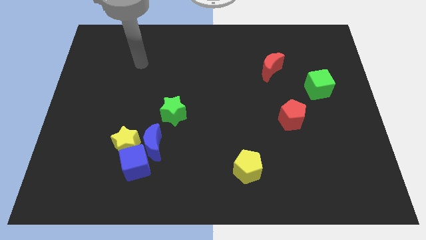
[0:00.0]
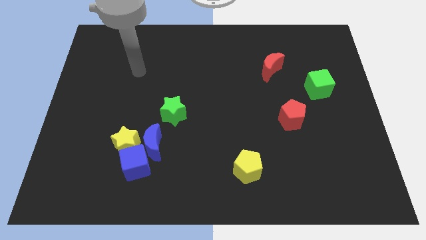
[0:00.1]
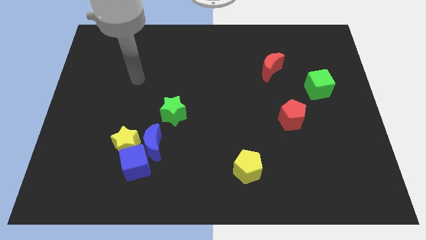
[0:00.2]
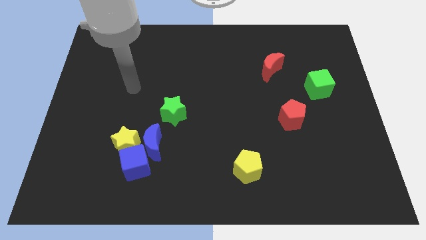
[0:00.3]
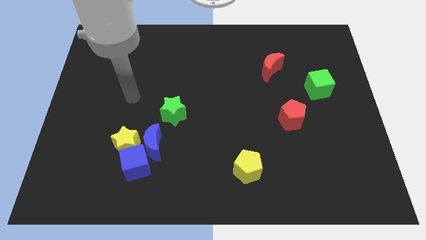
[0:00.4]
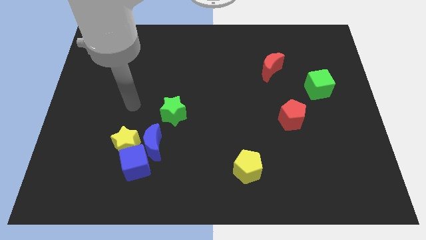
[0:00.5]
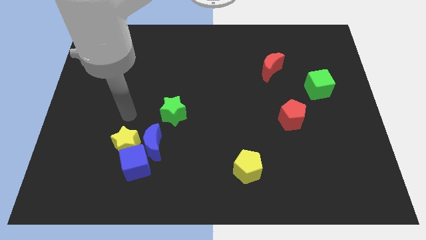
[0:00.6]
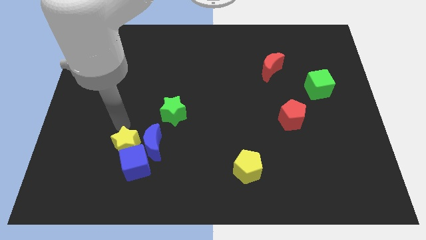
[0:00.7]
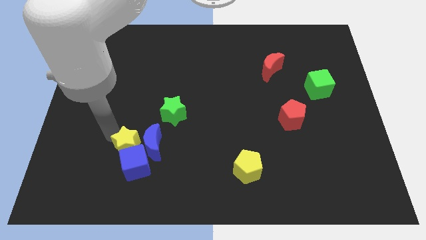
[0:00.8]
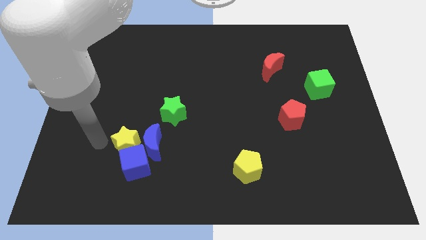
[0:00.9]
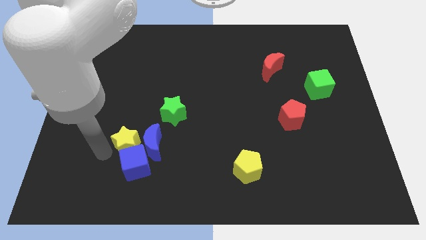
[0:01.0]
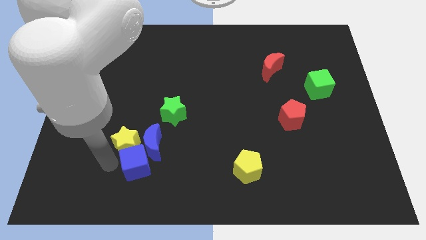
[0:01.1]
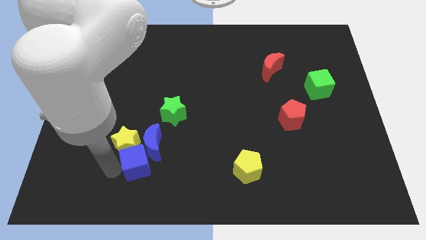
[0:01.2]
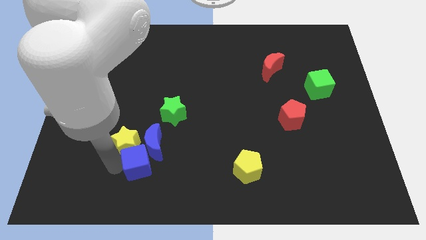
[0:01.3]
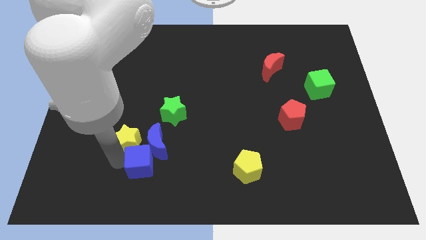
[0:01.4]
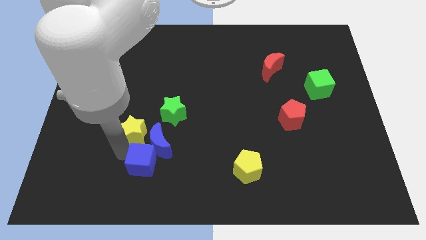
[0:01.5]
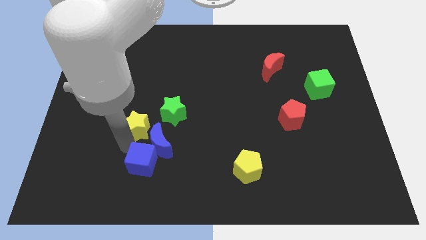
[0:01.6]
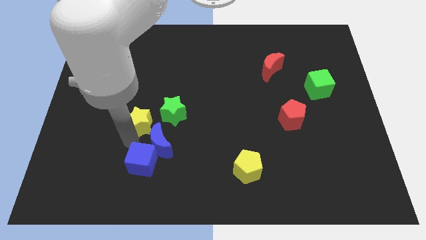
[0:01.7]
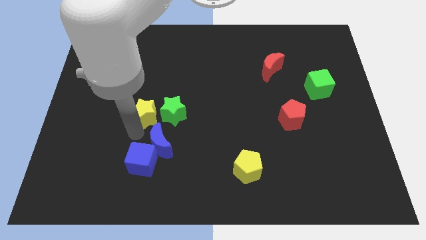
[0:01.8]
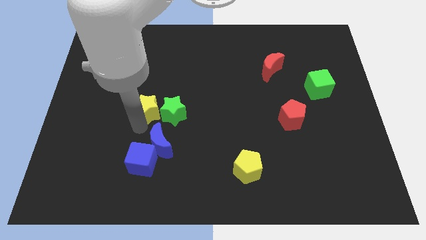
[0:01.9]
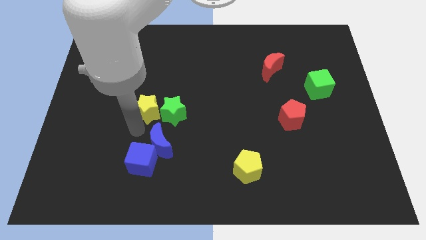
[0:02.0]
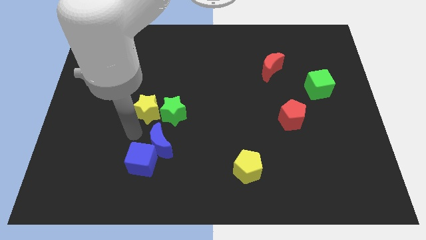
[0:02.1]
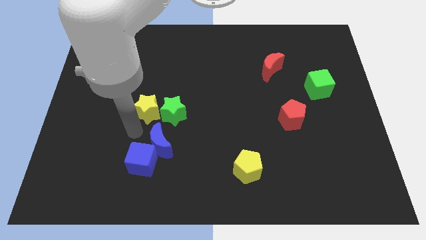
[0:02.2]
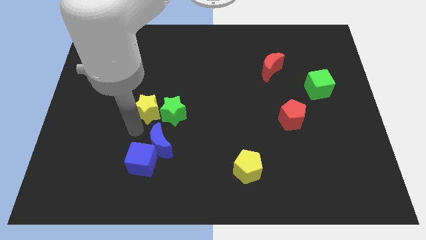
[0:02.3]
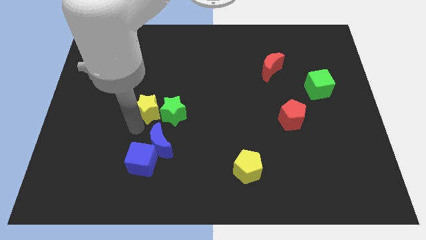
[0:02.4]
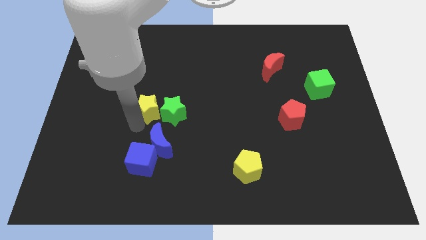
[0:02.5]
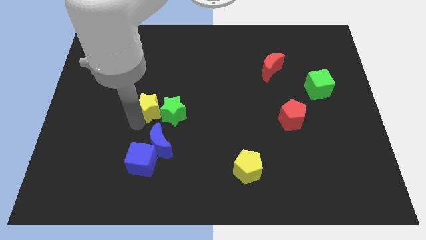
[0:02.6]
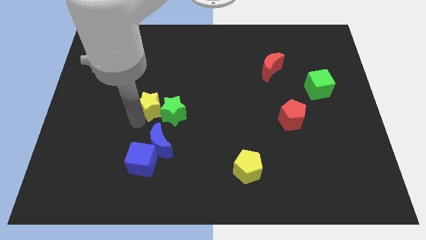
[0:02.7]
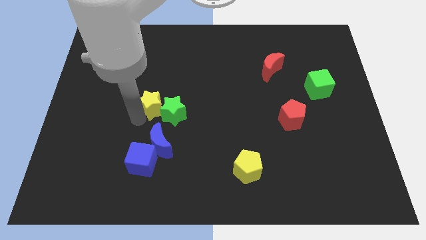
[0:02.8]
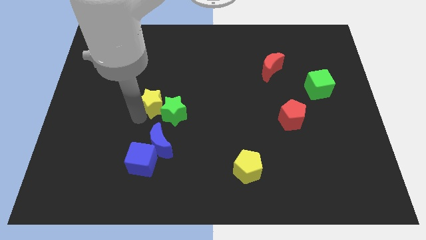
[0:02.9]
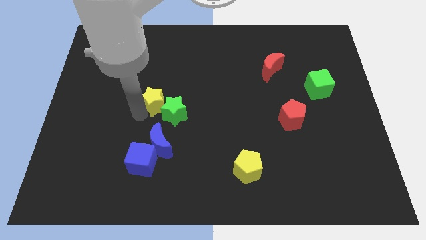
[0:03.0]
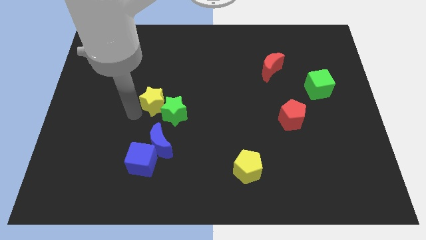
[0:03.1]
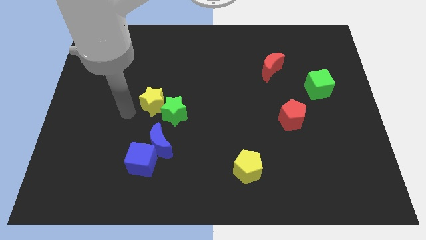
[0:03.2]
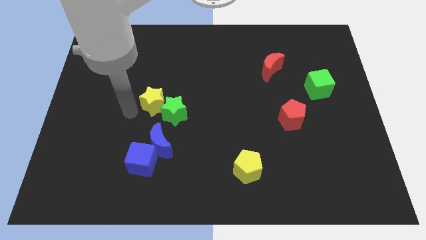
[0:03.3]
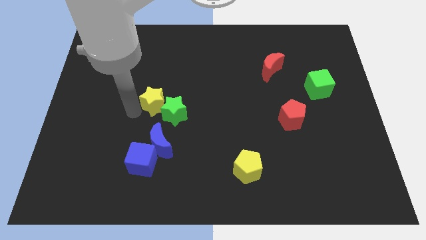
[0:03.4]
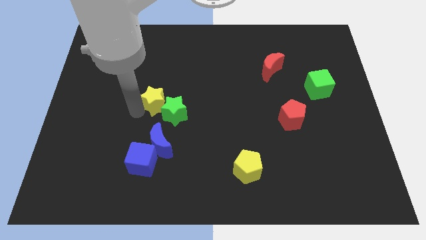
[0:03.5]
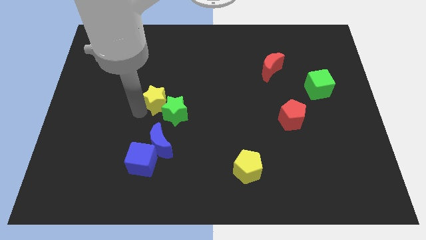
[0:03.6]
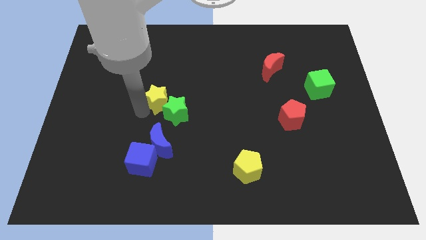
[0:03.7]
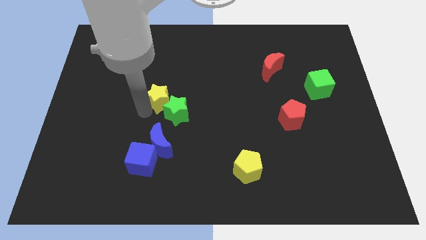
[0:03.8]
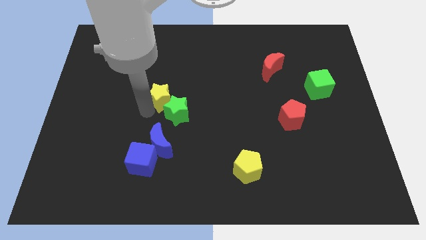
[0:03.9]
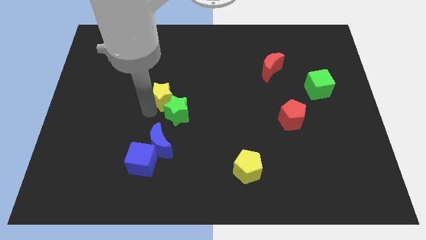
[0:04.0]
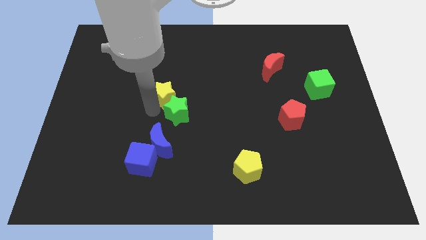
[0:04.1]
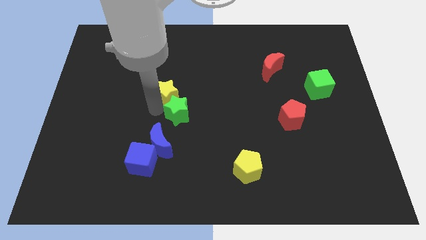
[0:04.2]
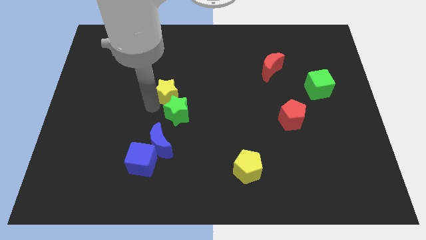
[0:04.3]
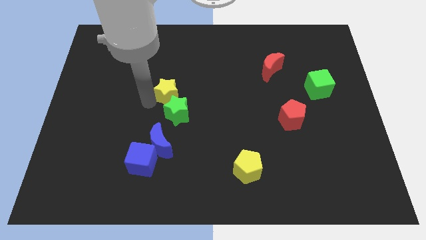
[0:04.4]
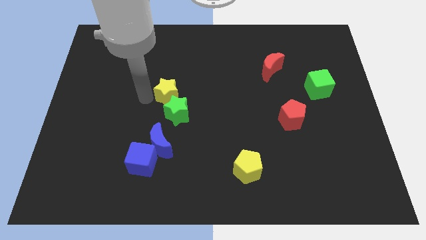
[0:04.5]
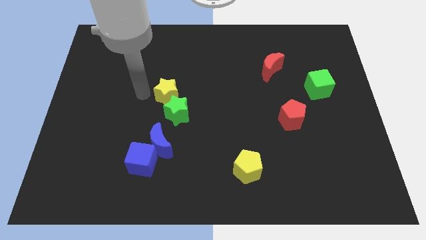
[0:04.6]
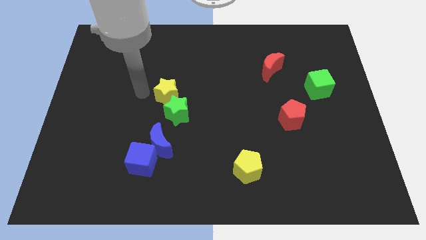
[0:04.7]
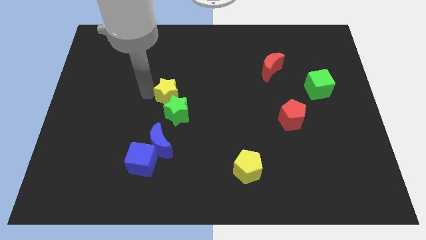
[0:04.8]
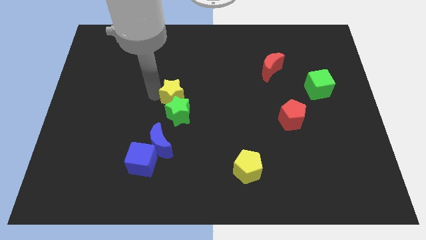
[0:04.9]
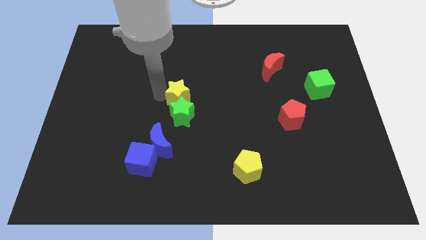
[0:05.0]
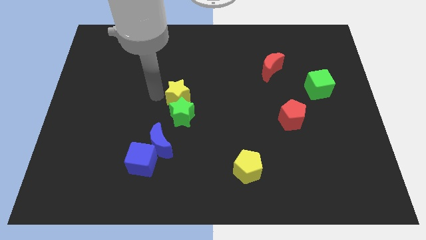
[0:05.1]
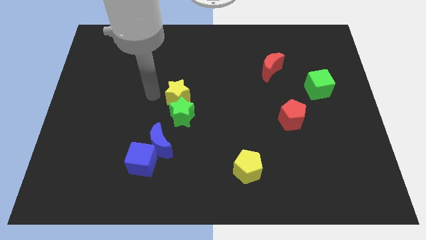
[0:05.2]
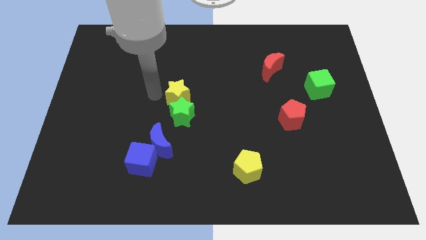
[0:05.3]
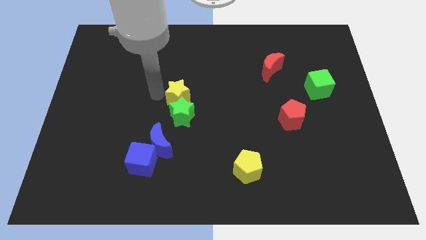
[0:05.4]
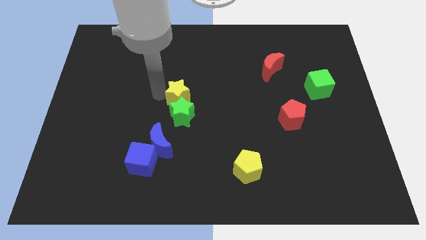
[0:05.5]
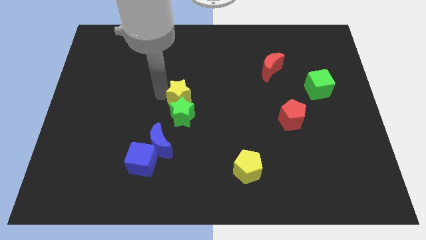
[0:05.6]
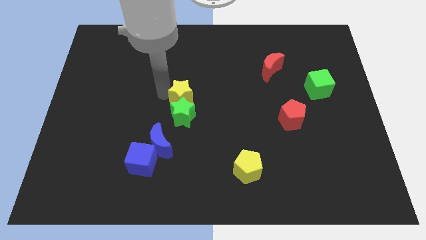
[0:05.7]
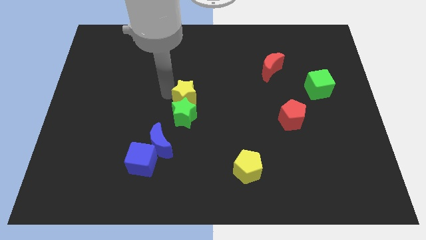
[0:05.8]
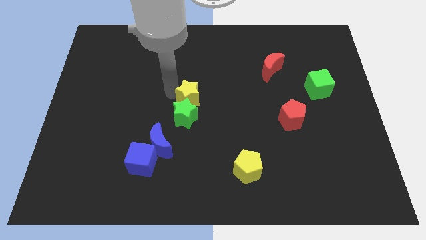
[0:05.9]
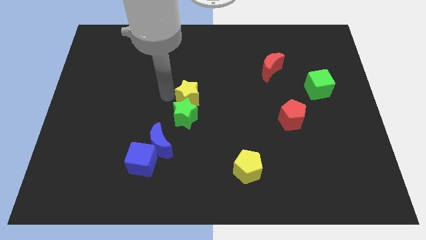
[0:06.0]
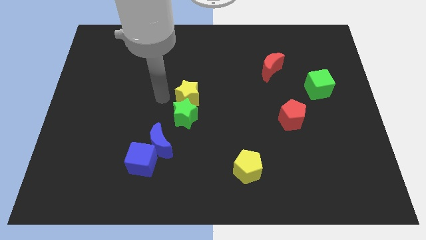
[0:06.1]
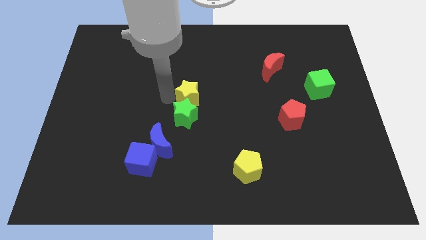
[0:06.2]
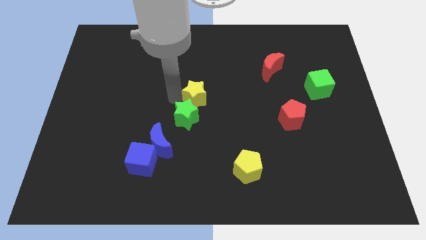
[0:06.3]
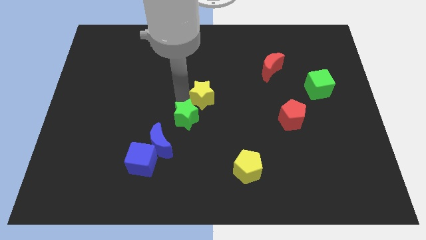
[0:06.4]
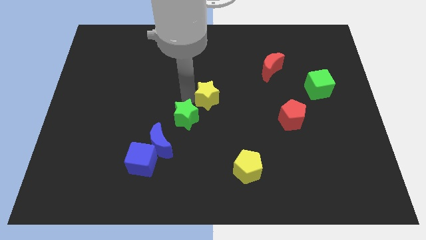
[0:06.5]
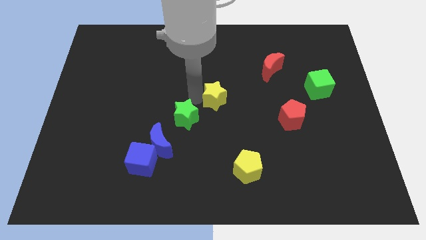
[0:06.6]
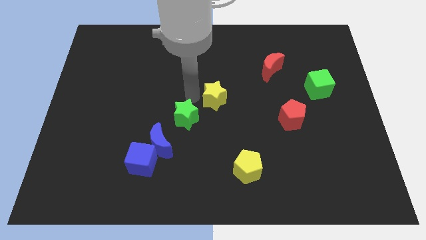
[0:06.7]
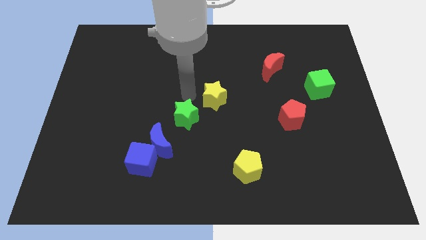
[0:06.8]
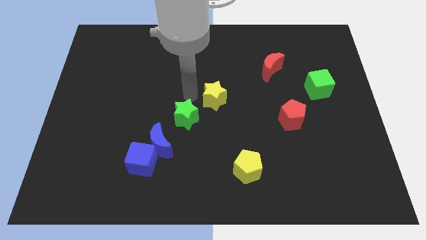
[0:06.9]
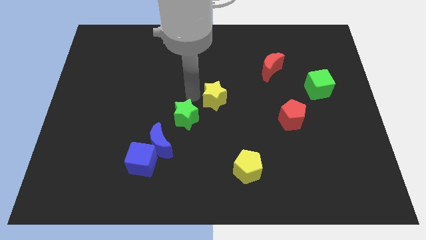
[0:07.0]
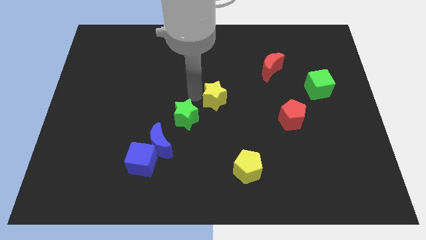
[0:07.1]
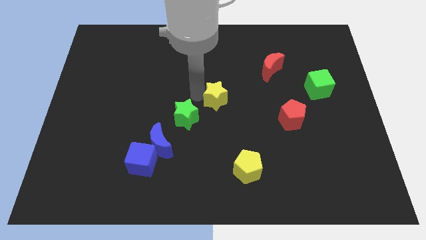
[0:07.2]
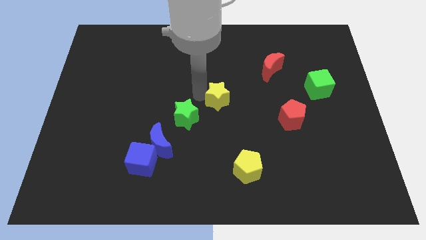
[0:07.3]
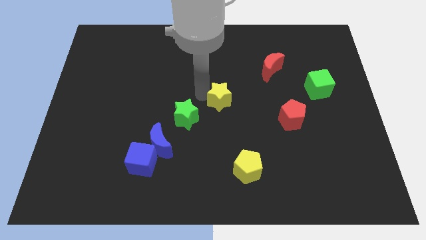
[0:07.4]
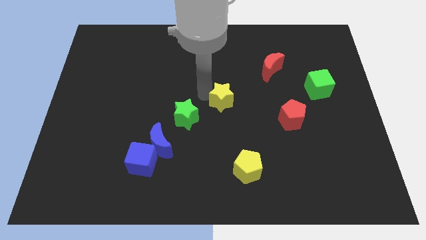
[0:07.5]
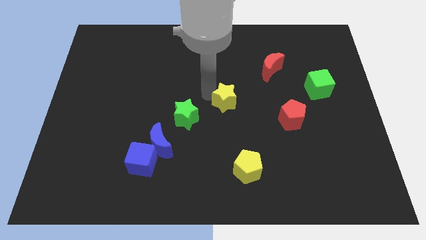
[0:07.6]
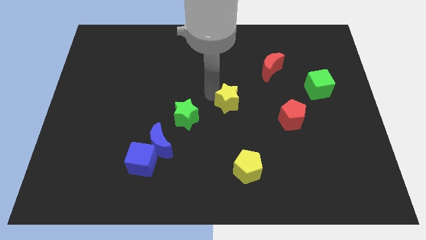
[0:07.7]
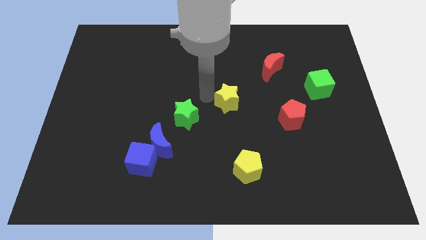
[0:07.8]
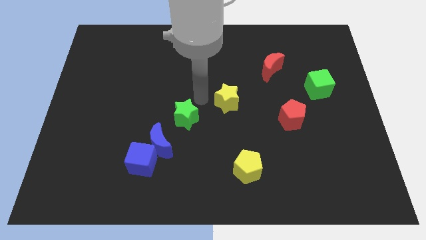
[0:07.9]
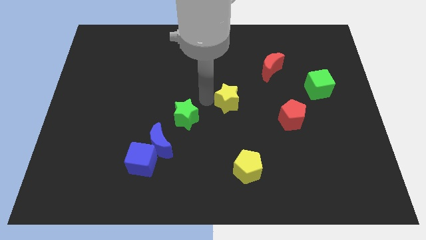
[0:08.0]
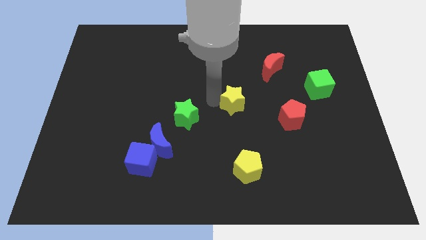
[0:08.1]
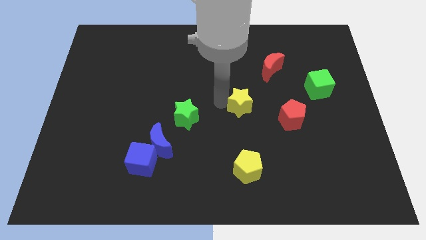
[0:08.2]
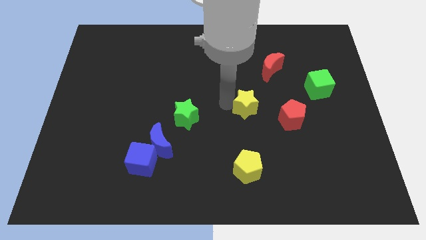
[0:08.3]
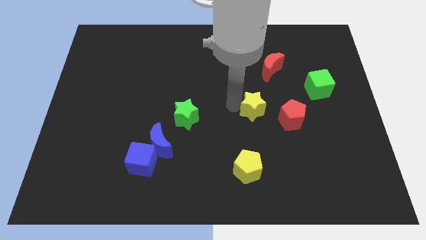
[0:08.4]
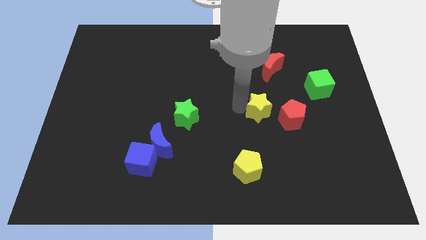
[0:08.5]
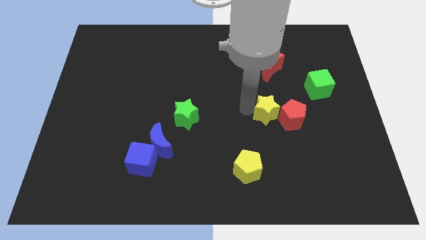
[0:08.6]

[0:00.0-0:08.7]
put the yellow star next to the red pentagon
